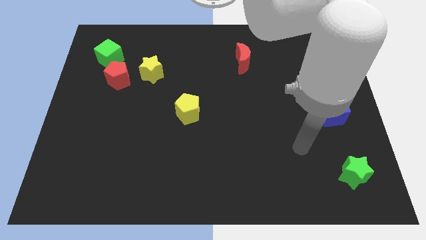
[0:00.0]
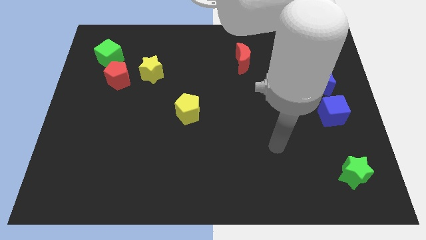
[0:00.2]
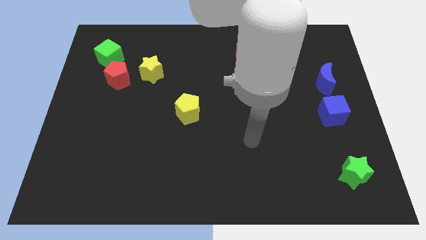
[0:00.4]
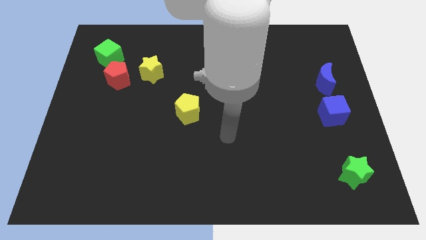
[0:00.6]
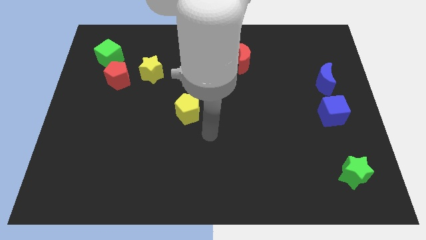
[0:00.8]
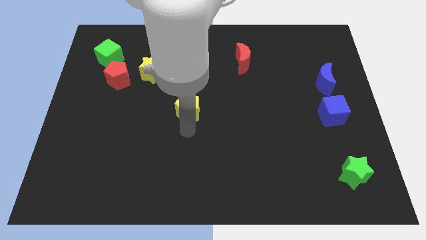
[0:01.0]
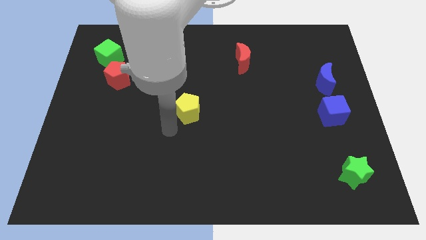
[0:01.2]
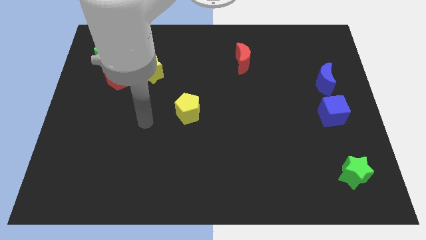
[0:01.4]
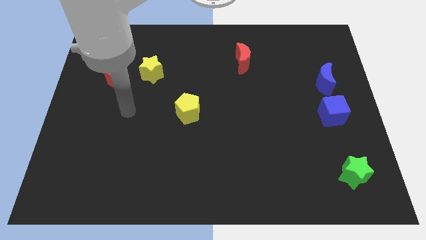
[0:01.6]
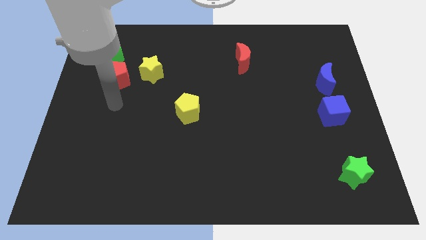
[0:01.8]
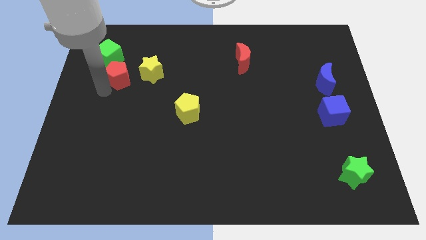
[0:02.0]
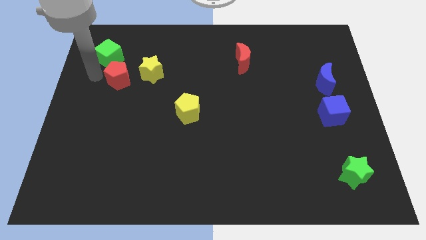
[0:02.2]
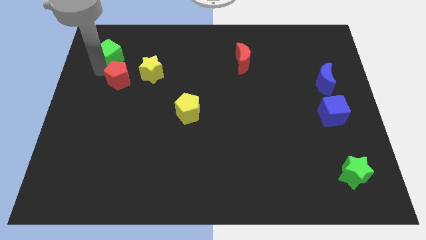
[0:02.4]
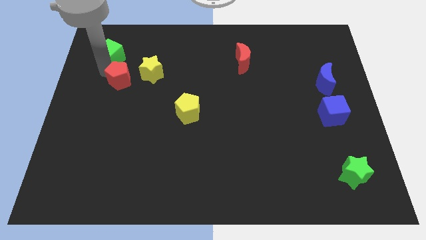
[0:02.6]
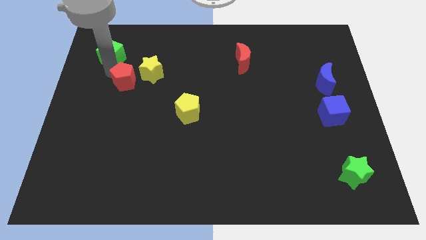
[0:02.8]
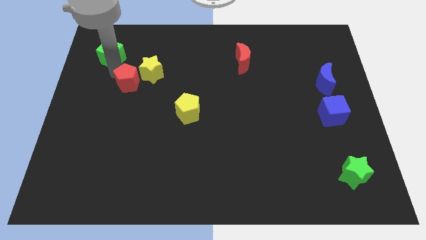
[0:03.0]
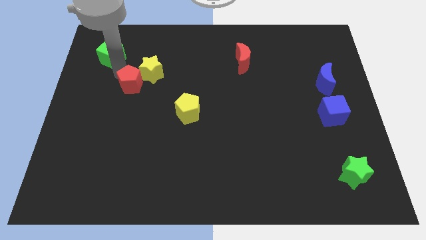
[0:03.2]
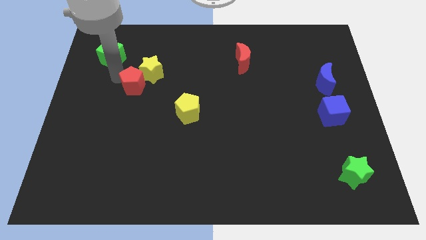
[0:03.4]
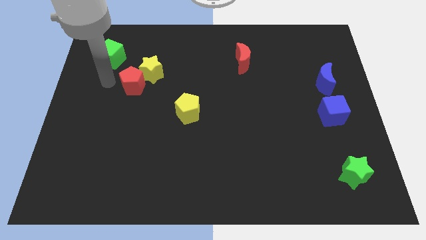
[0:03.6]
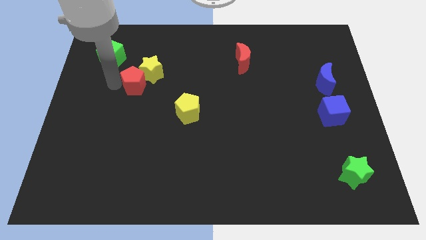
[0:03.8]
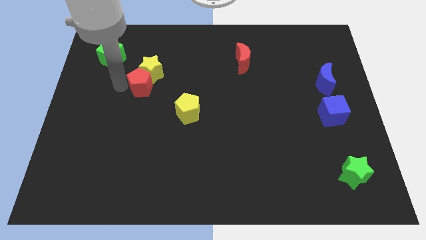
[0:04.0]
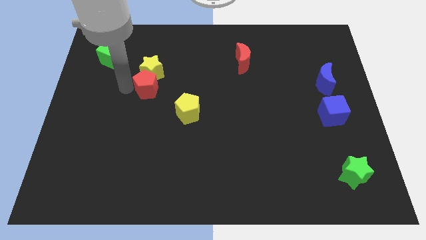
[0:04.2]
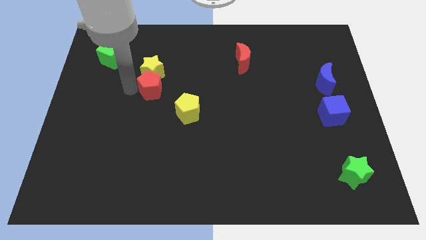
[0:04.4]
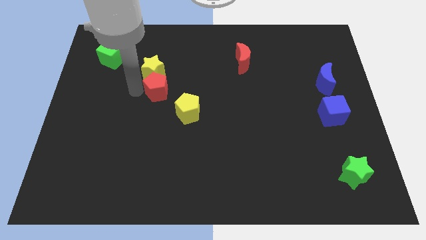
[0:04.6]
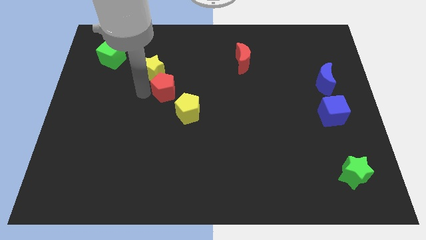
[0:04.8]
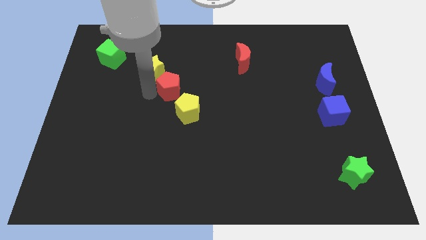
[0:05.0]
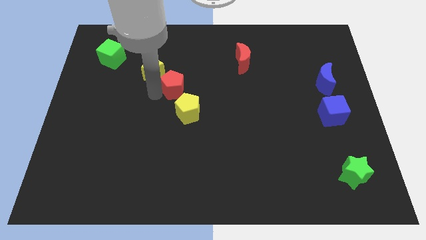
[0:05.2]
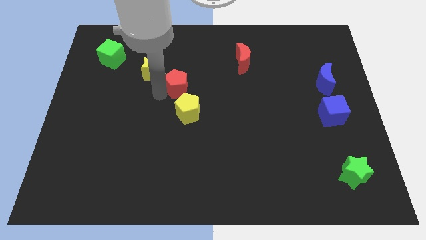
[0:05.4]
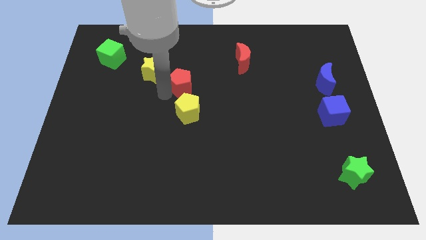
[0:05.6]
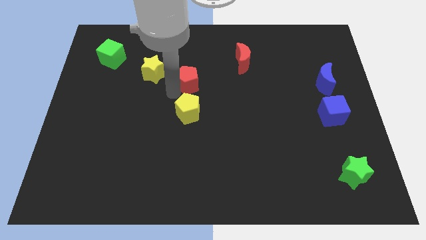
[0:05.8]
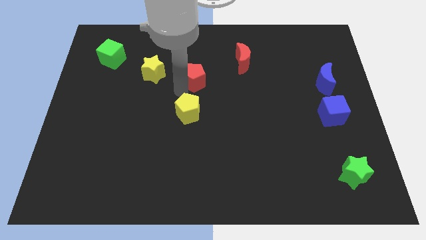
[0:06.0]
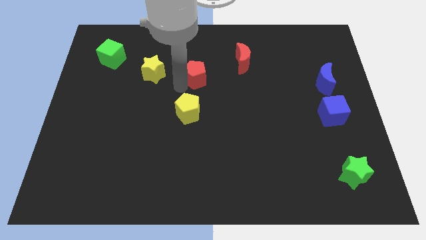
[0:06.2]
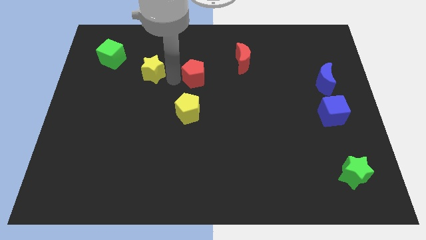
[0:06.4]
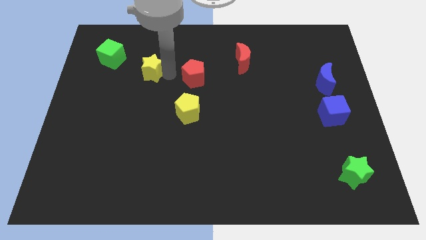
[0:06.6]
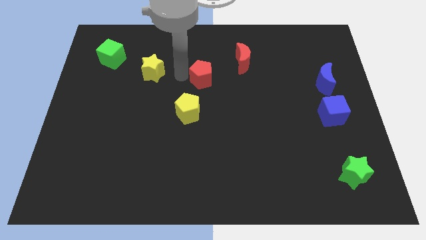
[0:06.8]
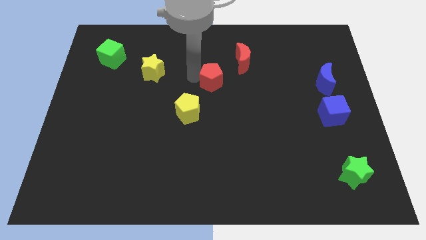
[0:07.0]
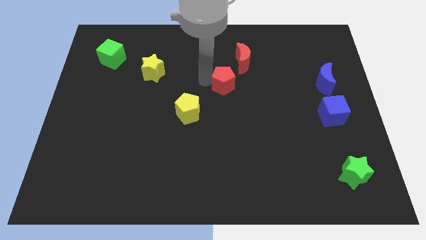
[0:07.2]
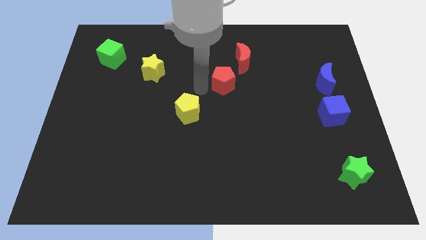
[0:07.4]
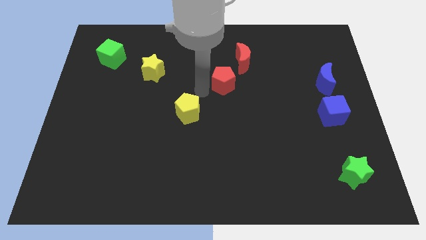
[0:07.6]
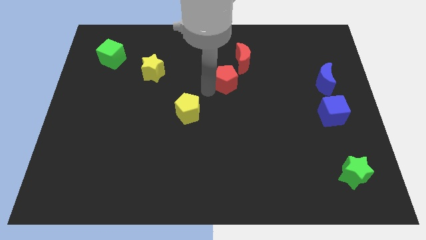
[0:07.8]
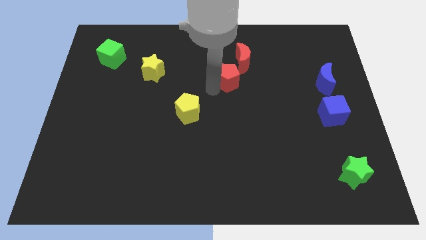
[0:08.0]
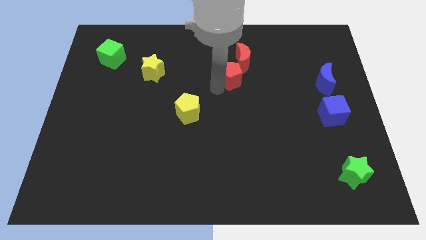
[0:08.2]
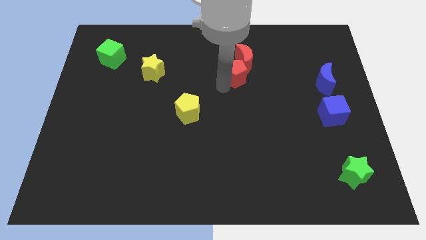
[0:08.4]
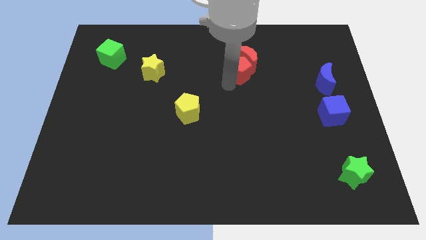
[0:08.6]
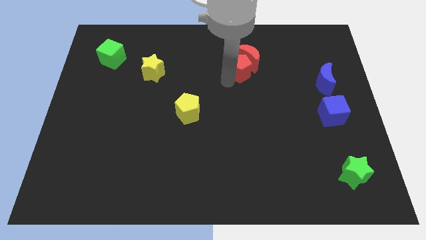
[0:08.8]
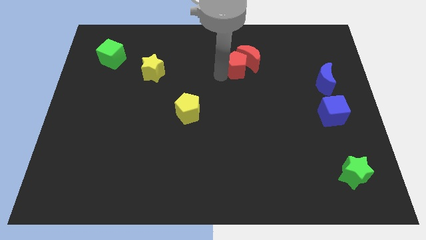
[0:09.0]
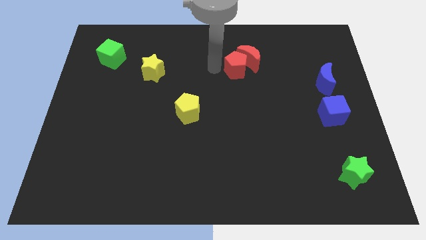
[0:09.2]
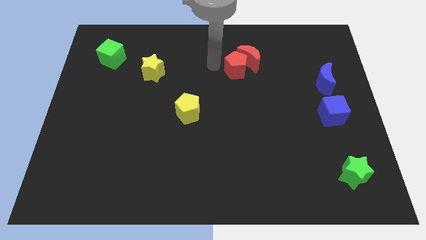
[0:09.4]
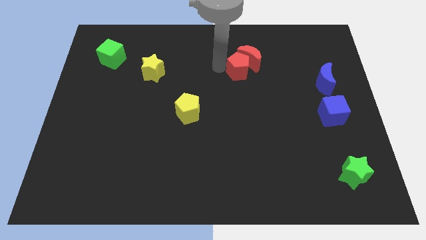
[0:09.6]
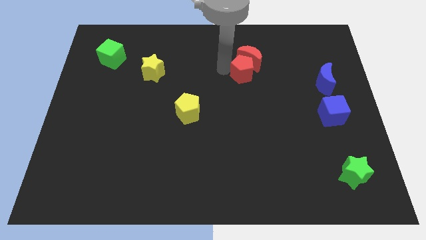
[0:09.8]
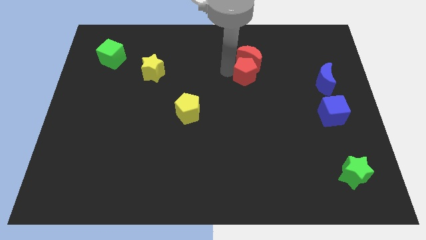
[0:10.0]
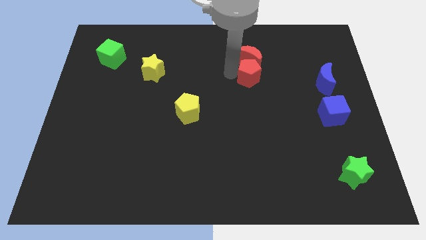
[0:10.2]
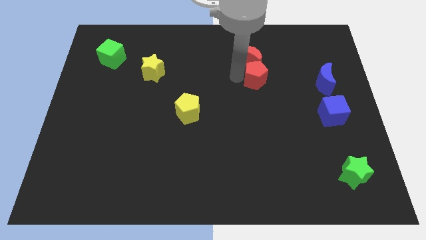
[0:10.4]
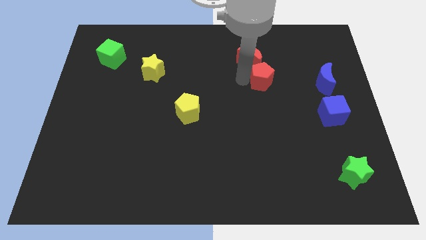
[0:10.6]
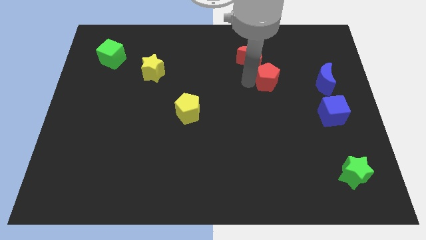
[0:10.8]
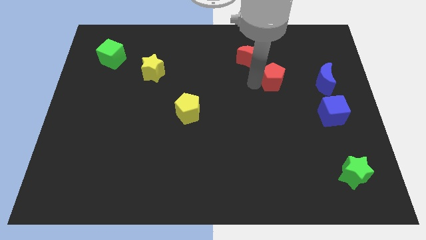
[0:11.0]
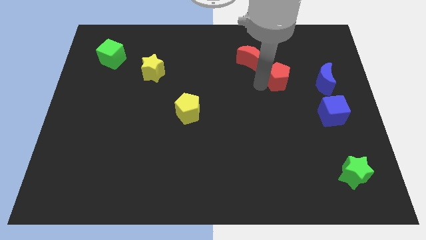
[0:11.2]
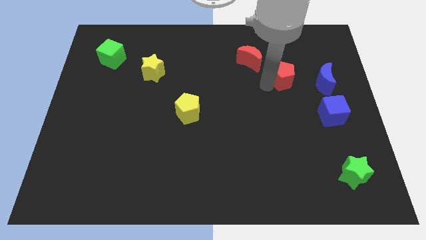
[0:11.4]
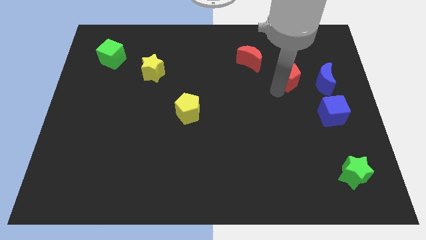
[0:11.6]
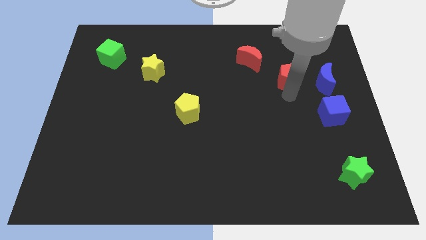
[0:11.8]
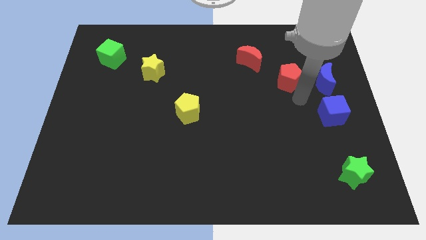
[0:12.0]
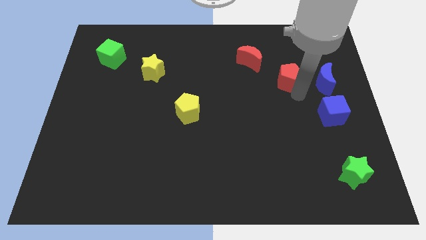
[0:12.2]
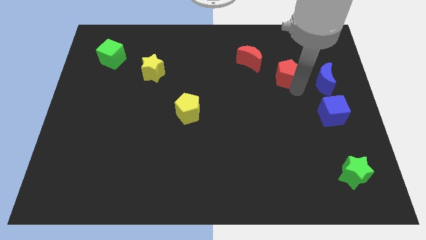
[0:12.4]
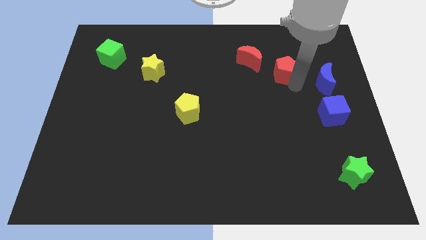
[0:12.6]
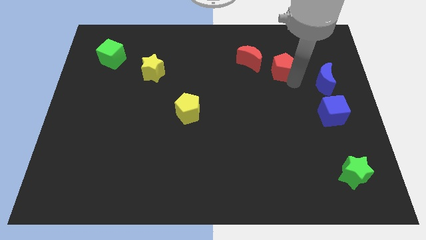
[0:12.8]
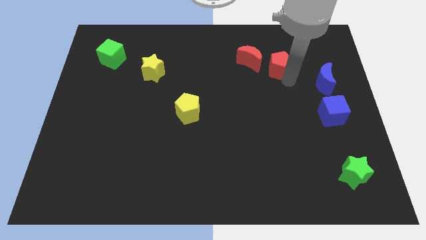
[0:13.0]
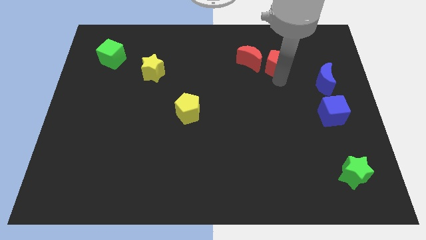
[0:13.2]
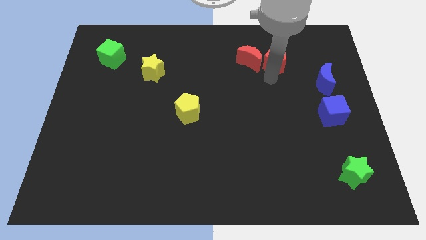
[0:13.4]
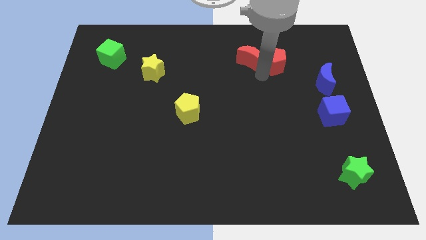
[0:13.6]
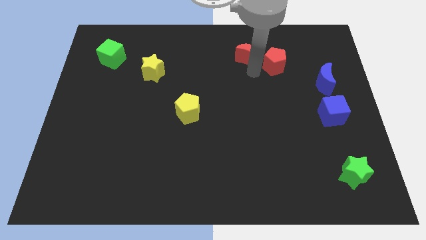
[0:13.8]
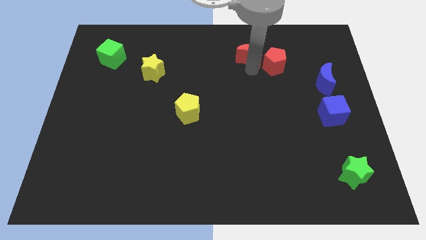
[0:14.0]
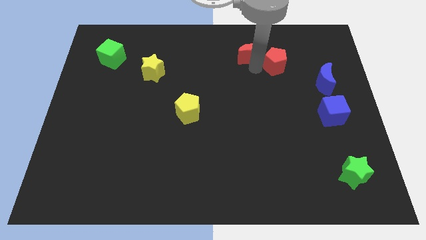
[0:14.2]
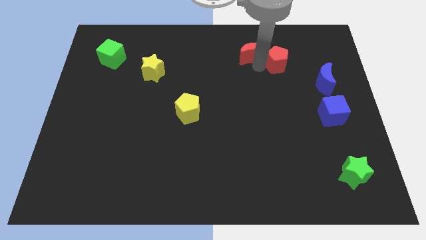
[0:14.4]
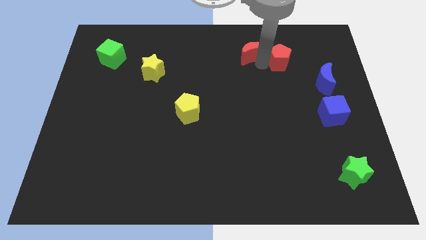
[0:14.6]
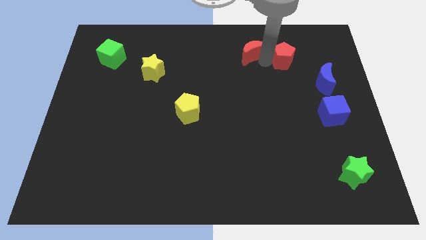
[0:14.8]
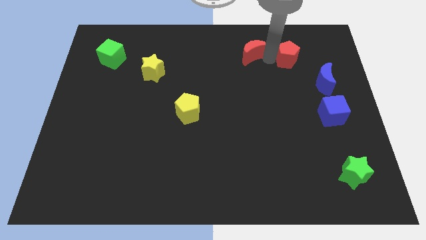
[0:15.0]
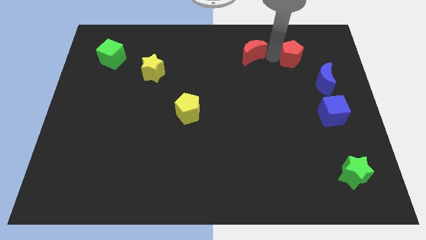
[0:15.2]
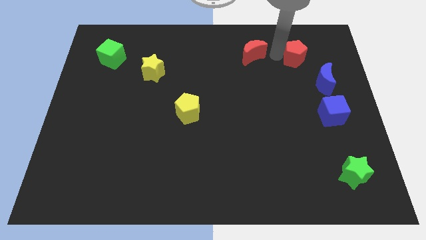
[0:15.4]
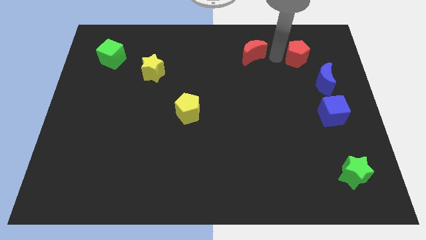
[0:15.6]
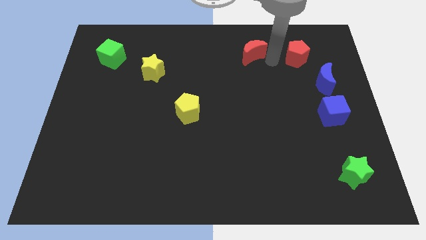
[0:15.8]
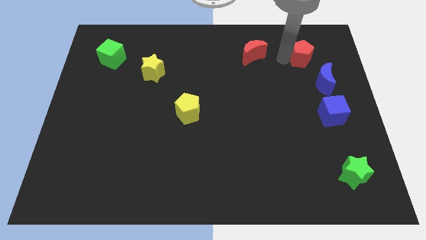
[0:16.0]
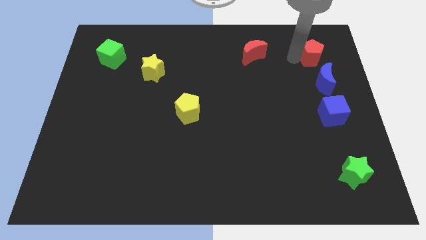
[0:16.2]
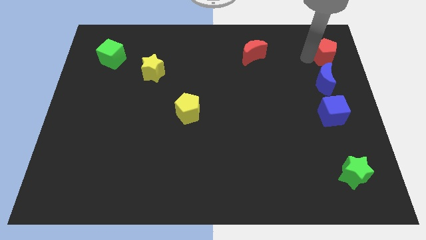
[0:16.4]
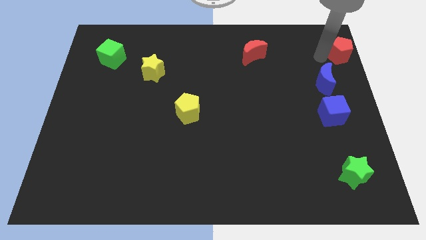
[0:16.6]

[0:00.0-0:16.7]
slide the red pentagon to the top right corner
